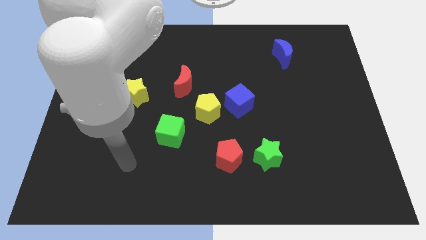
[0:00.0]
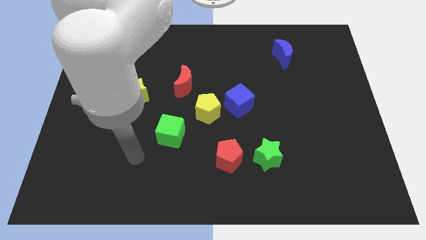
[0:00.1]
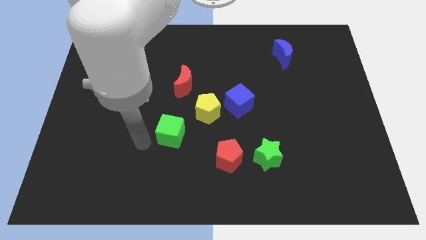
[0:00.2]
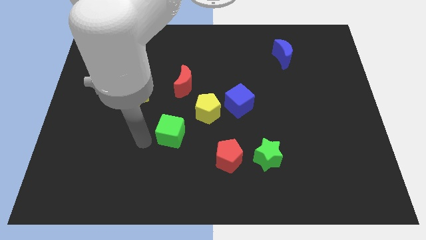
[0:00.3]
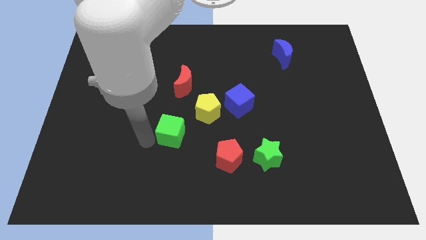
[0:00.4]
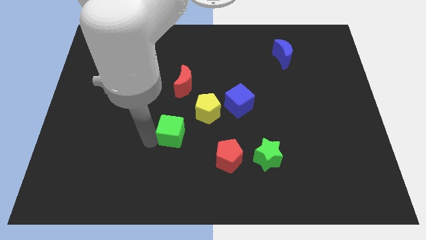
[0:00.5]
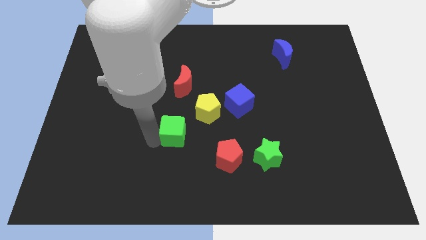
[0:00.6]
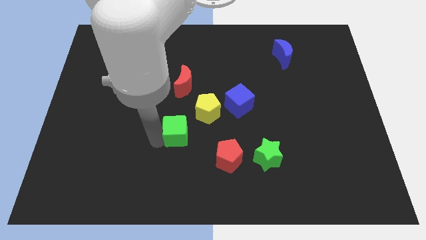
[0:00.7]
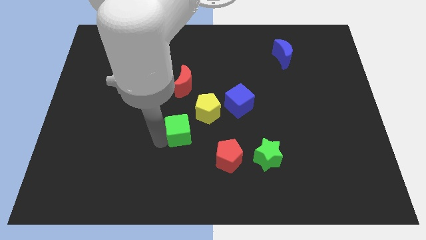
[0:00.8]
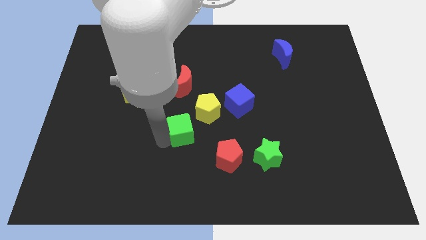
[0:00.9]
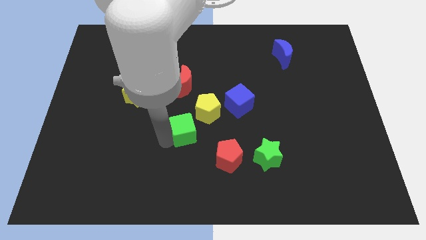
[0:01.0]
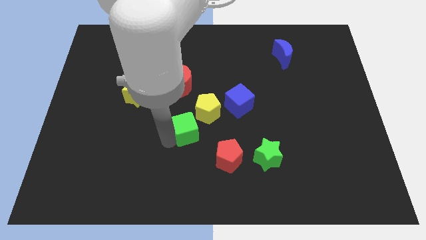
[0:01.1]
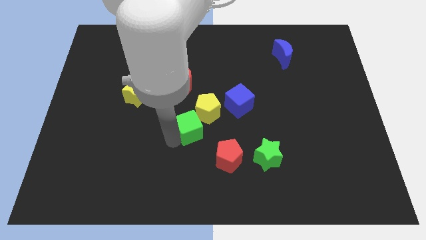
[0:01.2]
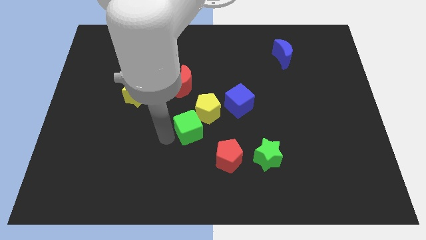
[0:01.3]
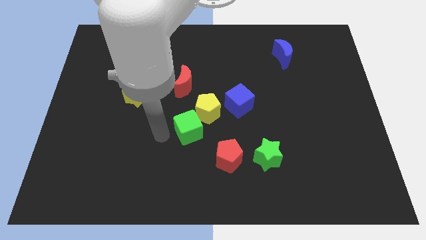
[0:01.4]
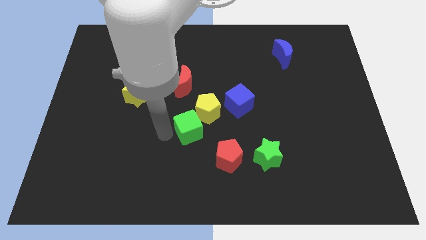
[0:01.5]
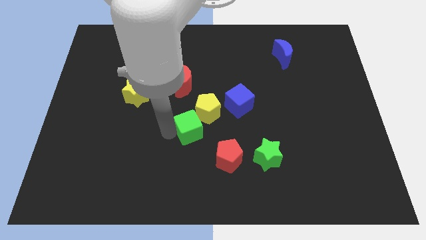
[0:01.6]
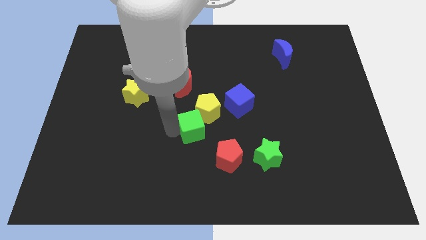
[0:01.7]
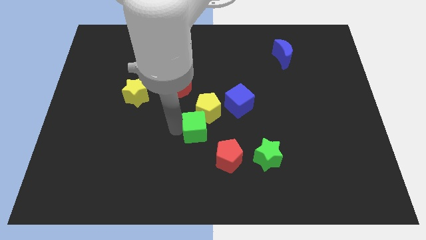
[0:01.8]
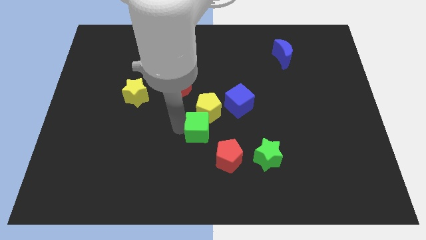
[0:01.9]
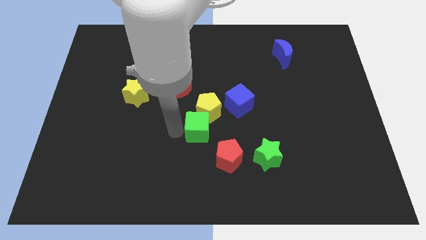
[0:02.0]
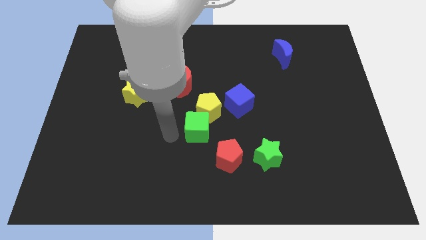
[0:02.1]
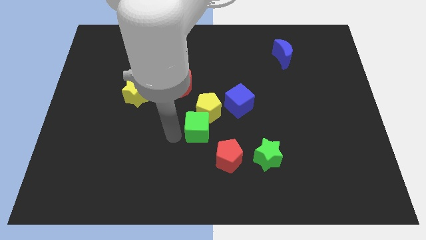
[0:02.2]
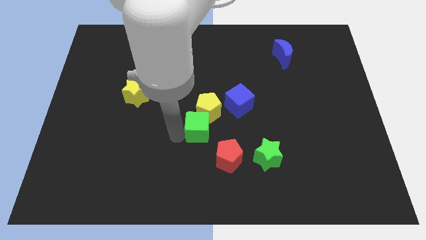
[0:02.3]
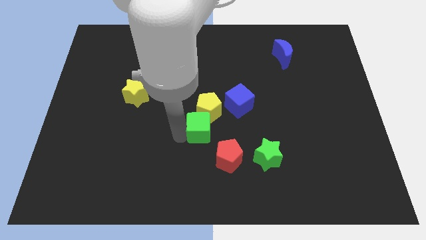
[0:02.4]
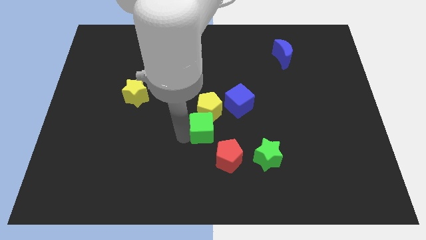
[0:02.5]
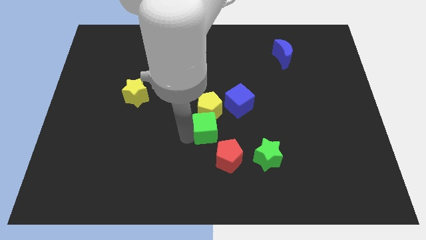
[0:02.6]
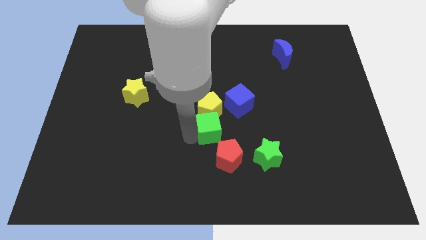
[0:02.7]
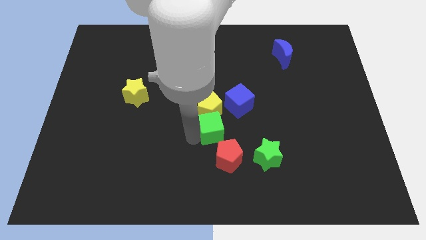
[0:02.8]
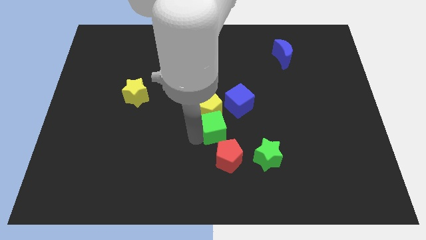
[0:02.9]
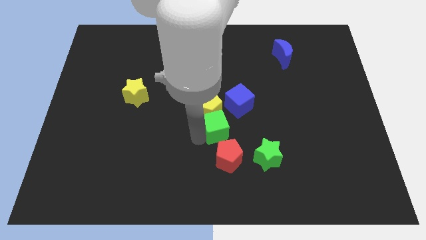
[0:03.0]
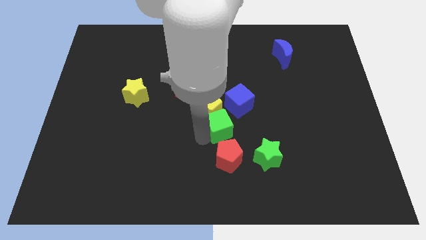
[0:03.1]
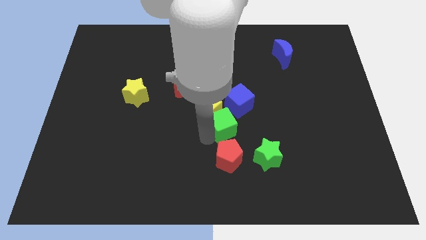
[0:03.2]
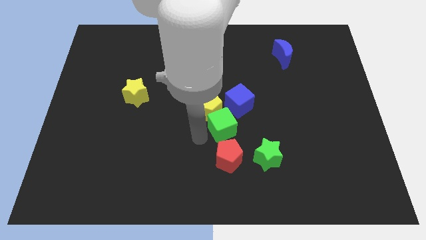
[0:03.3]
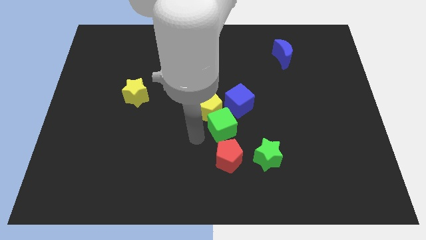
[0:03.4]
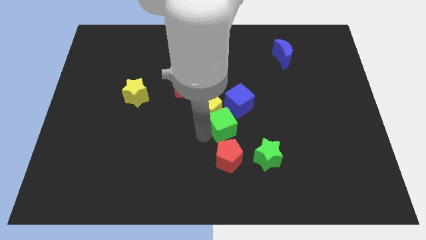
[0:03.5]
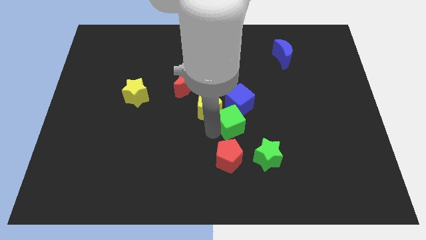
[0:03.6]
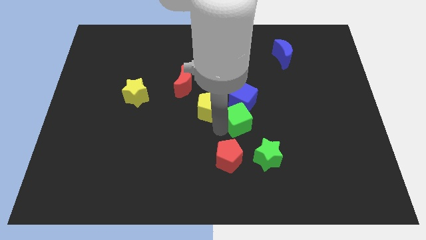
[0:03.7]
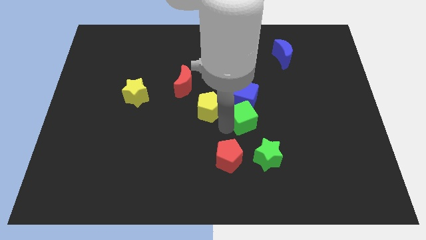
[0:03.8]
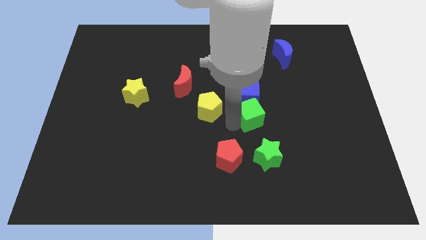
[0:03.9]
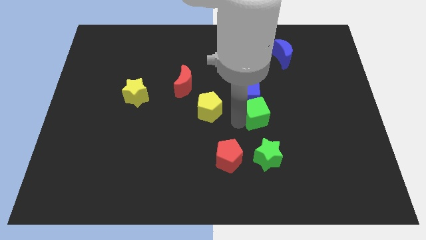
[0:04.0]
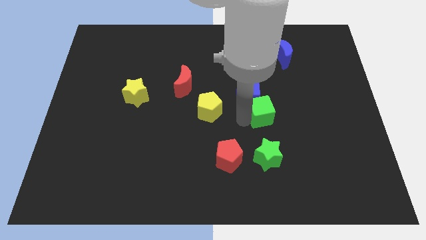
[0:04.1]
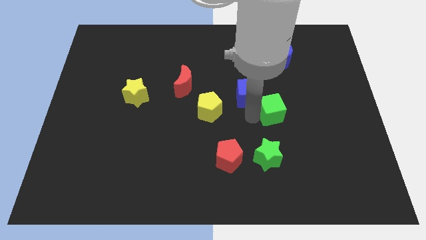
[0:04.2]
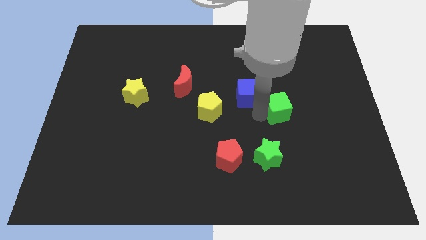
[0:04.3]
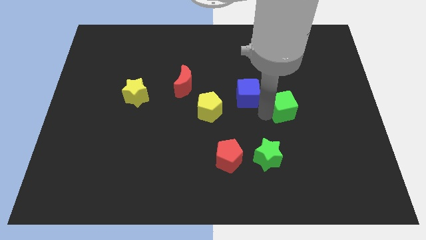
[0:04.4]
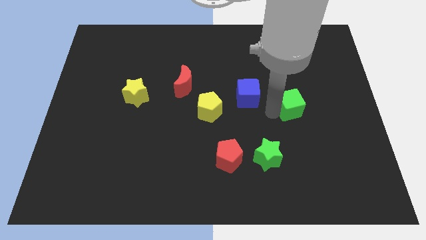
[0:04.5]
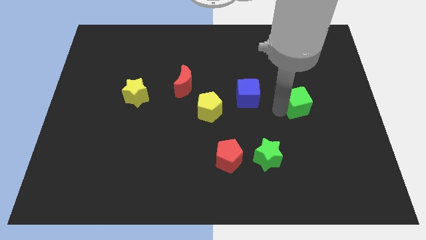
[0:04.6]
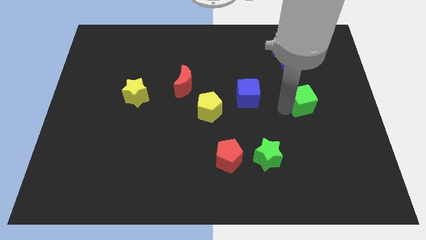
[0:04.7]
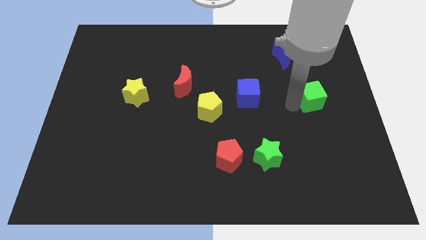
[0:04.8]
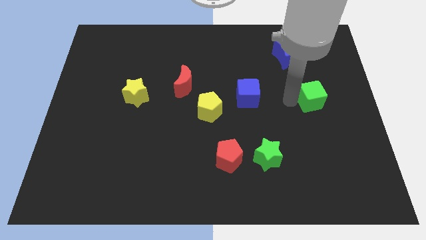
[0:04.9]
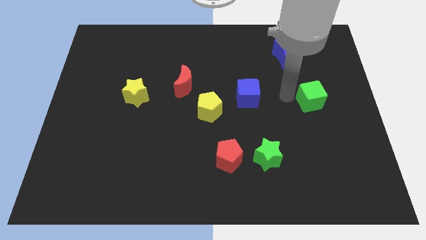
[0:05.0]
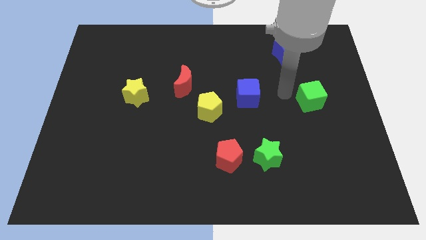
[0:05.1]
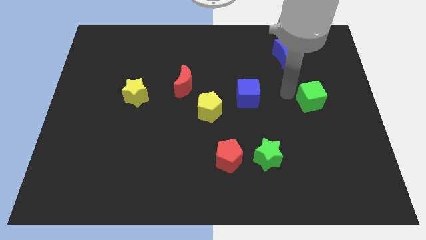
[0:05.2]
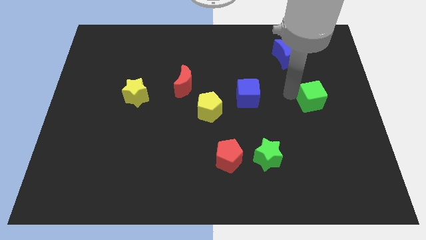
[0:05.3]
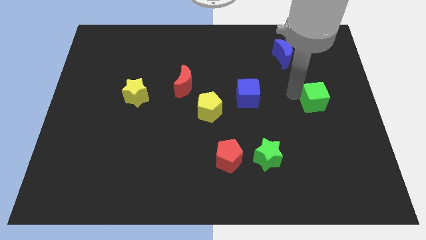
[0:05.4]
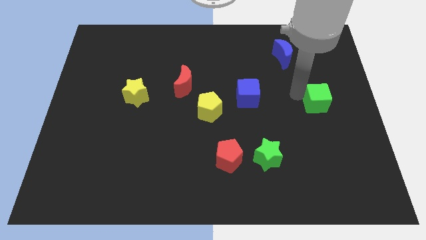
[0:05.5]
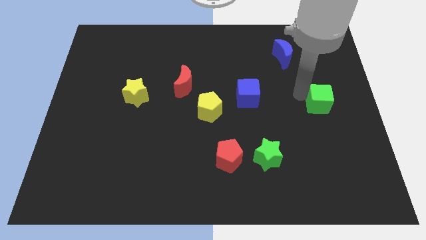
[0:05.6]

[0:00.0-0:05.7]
push the green cube to the right side of the board
